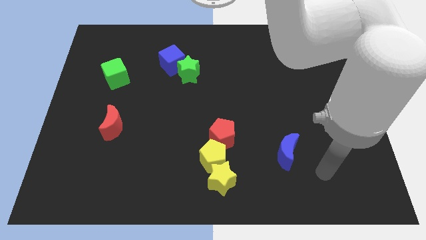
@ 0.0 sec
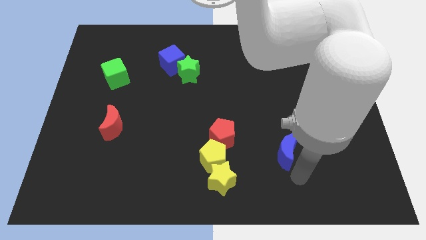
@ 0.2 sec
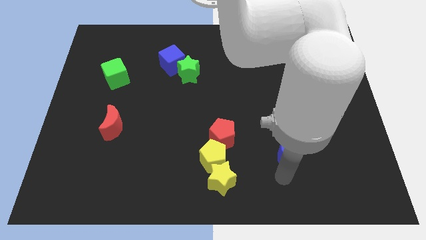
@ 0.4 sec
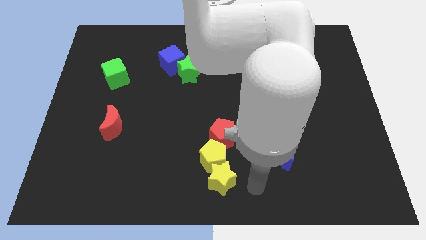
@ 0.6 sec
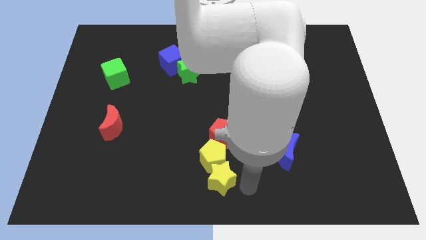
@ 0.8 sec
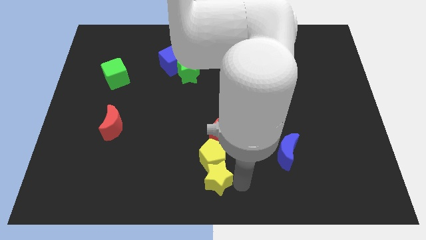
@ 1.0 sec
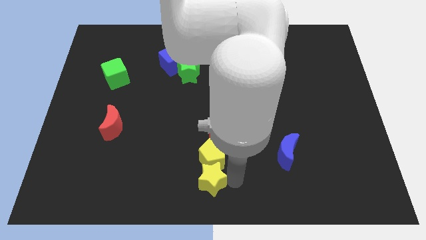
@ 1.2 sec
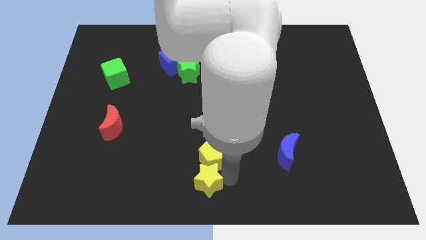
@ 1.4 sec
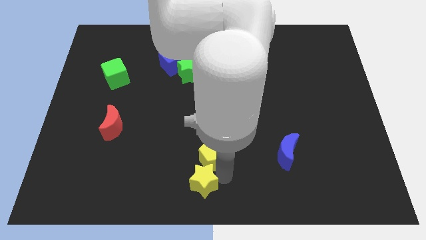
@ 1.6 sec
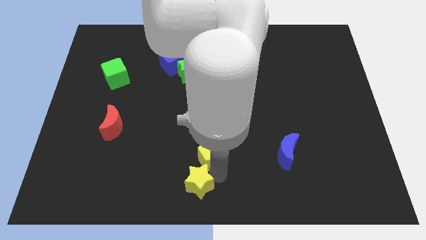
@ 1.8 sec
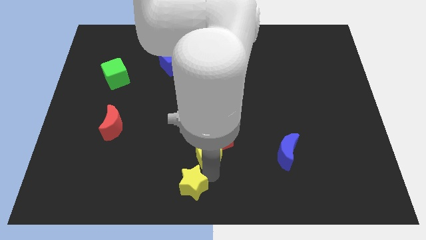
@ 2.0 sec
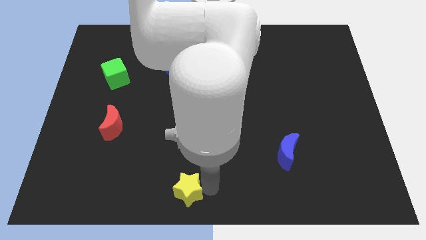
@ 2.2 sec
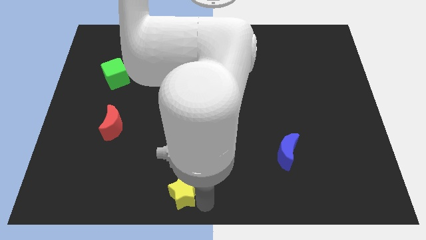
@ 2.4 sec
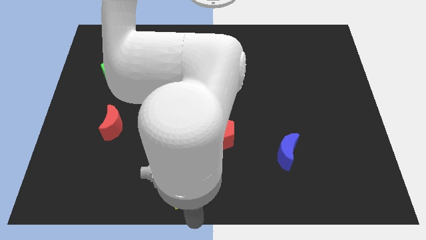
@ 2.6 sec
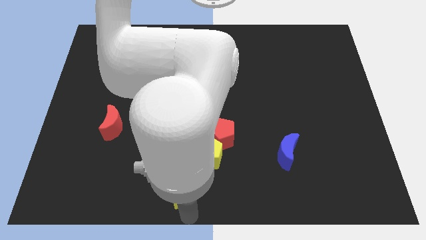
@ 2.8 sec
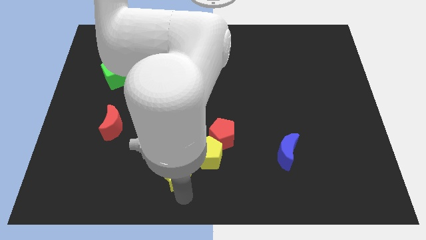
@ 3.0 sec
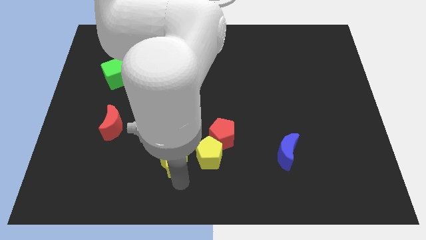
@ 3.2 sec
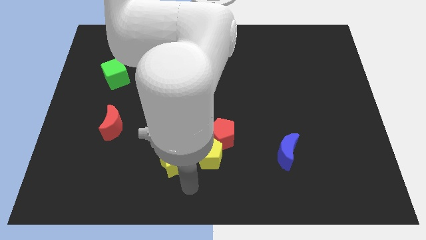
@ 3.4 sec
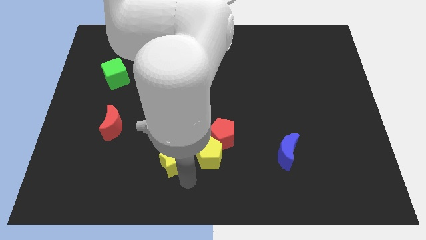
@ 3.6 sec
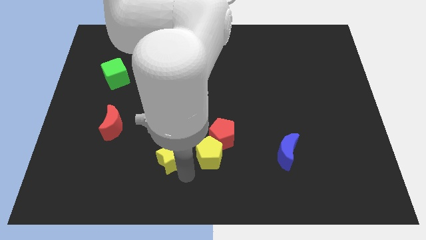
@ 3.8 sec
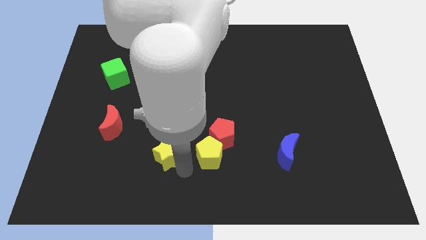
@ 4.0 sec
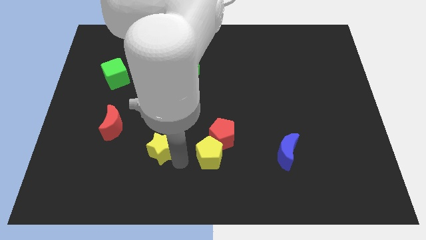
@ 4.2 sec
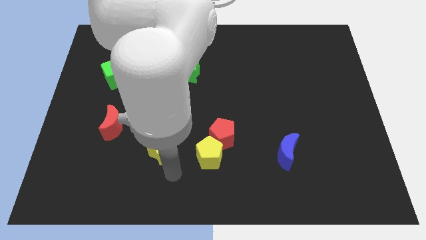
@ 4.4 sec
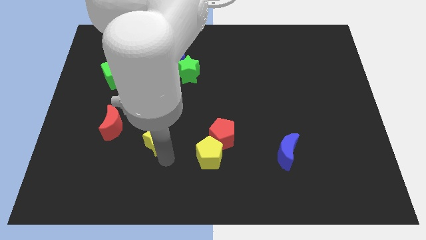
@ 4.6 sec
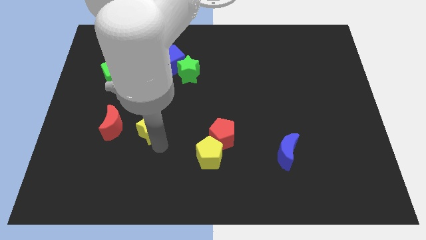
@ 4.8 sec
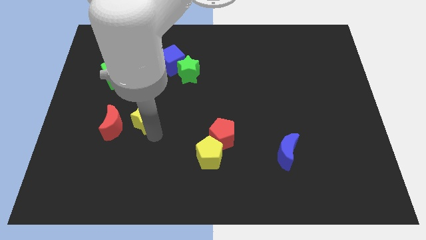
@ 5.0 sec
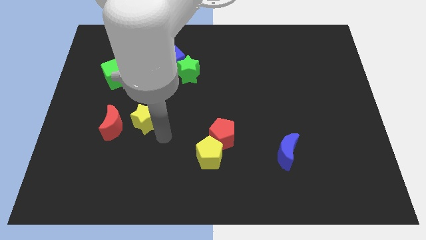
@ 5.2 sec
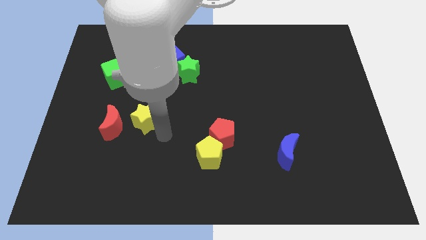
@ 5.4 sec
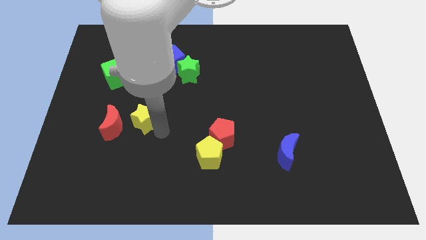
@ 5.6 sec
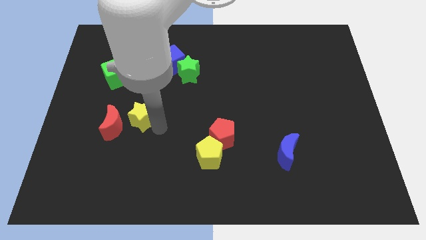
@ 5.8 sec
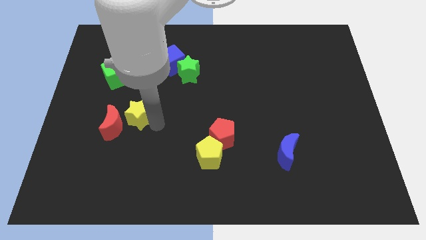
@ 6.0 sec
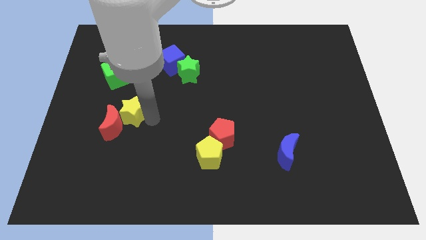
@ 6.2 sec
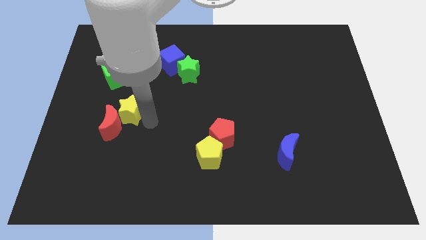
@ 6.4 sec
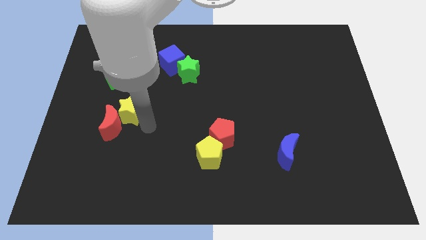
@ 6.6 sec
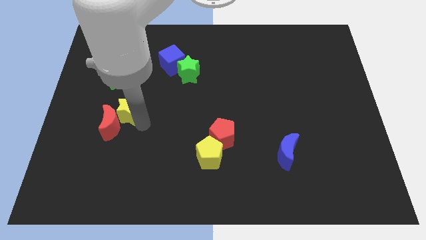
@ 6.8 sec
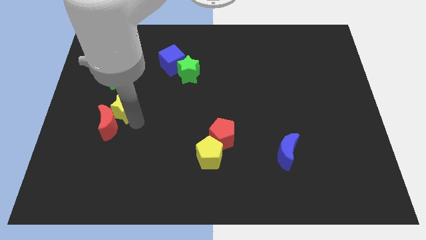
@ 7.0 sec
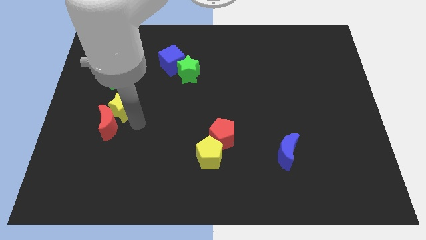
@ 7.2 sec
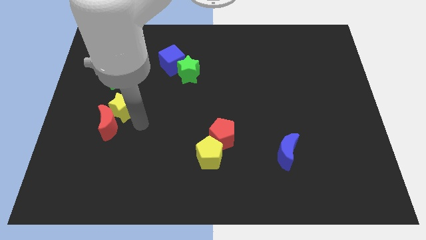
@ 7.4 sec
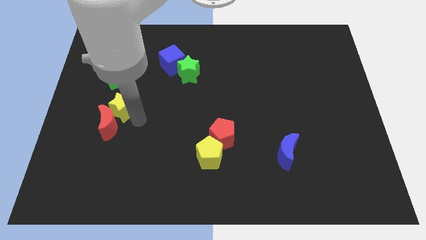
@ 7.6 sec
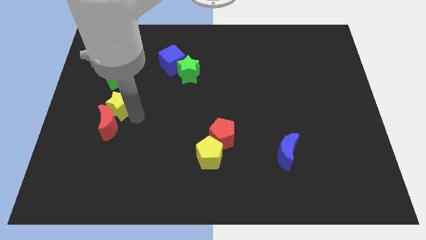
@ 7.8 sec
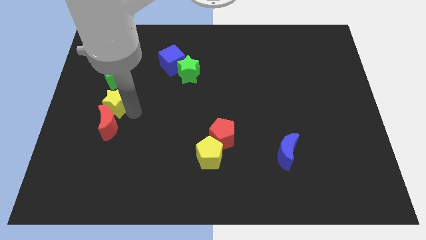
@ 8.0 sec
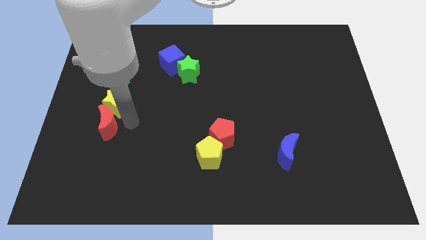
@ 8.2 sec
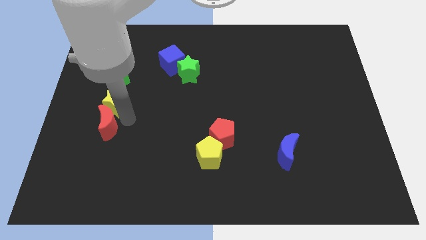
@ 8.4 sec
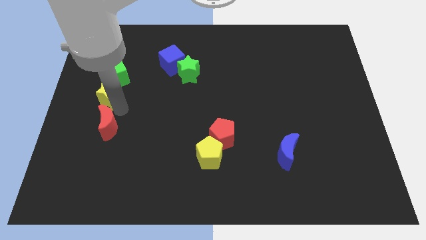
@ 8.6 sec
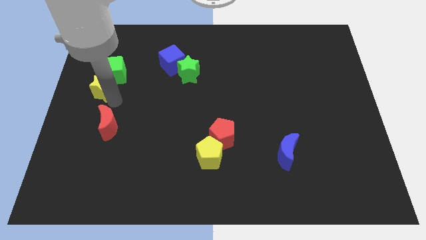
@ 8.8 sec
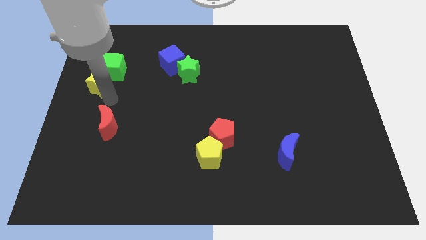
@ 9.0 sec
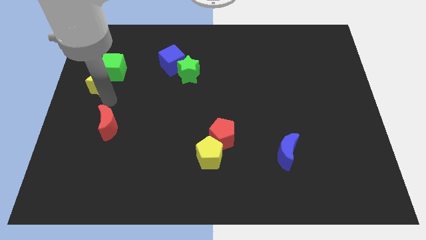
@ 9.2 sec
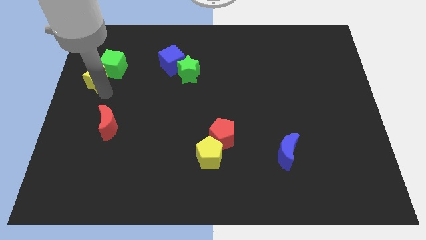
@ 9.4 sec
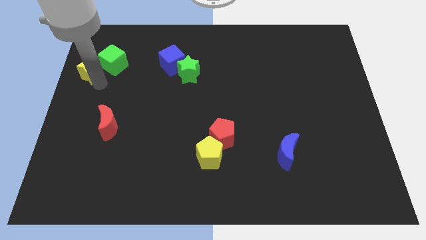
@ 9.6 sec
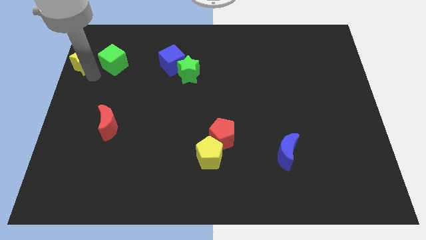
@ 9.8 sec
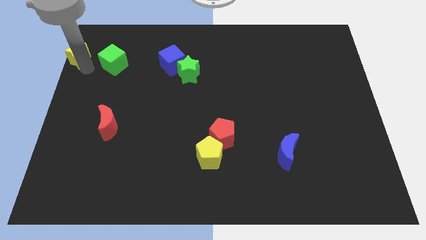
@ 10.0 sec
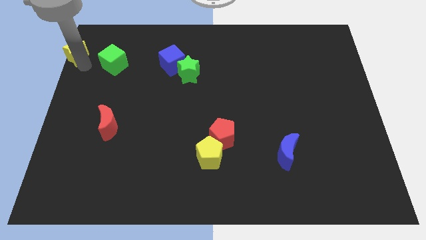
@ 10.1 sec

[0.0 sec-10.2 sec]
put the yellow star to the top left of the board

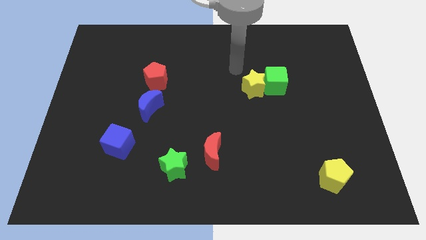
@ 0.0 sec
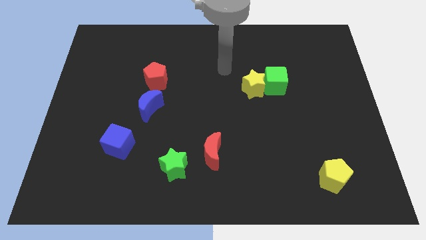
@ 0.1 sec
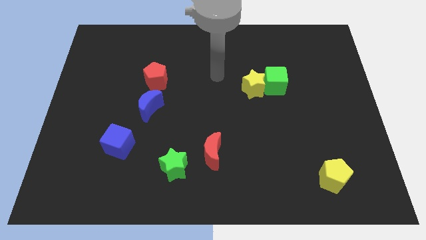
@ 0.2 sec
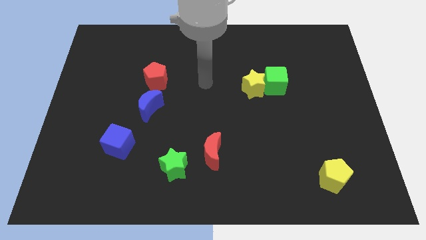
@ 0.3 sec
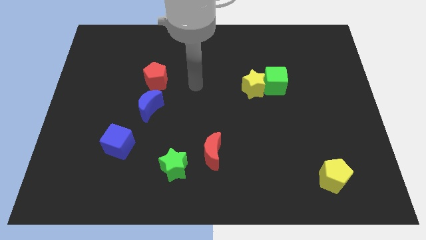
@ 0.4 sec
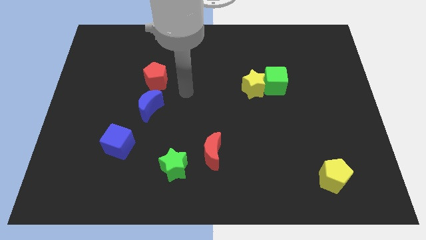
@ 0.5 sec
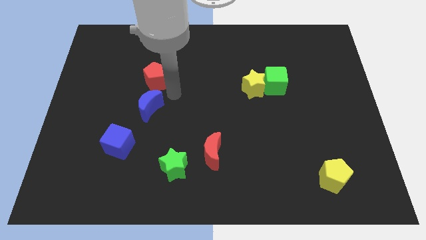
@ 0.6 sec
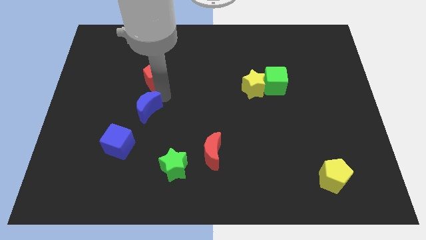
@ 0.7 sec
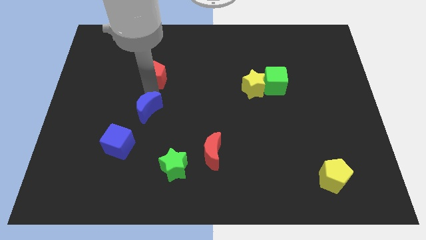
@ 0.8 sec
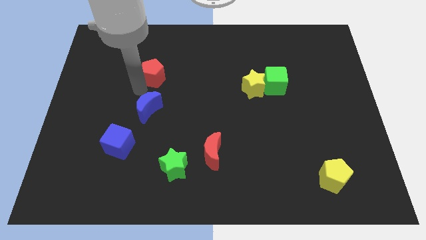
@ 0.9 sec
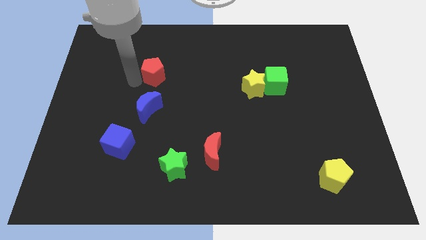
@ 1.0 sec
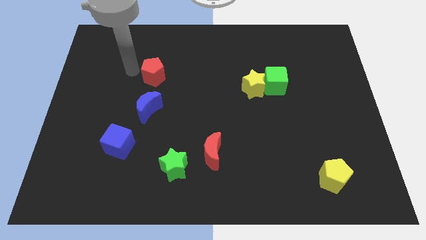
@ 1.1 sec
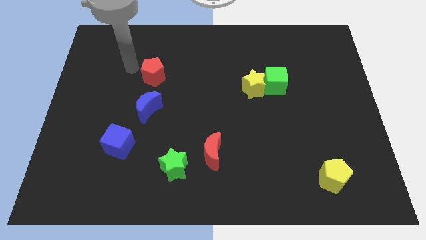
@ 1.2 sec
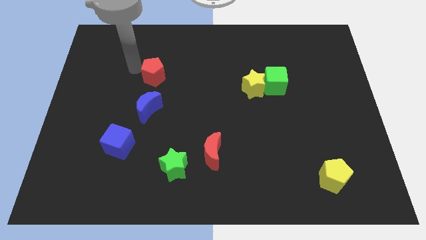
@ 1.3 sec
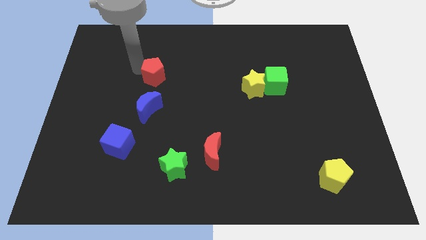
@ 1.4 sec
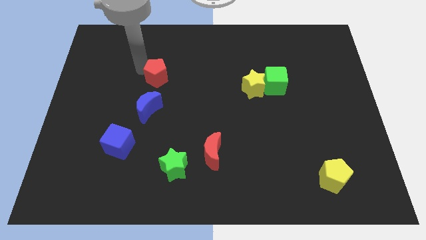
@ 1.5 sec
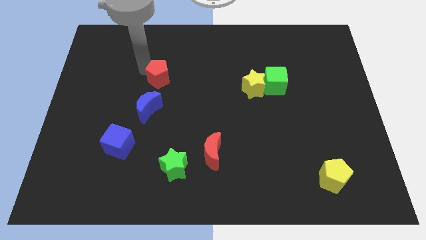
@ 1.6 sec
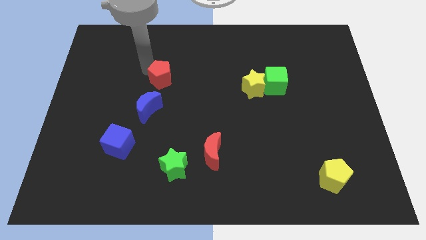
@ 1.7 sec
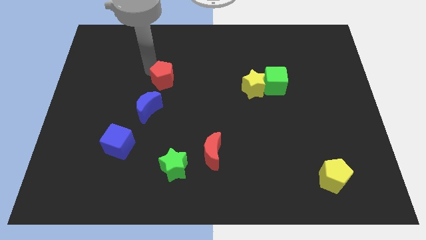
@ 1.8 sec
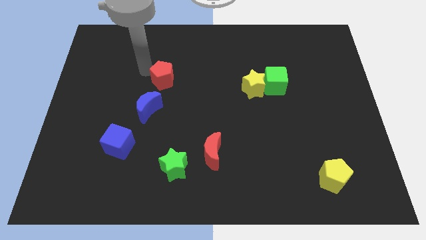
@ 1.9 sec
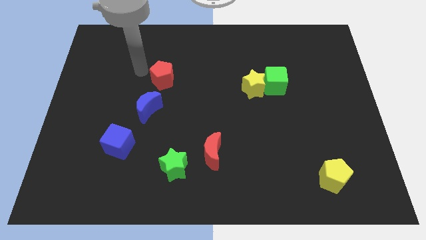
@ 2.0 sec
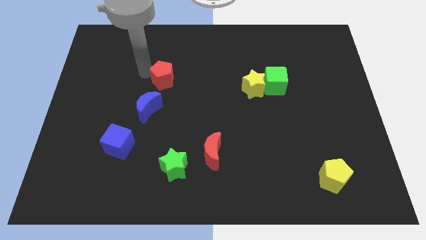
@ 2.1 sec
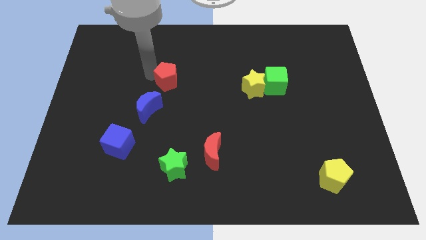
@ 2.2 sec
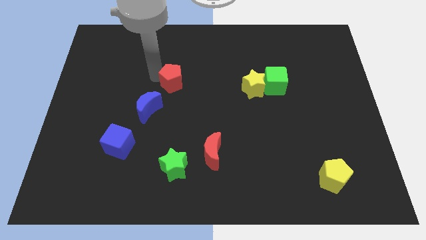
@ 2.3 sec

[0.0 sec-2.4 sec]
put the red pentagon to the middle of the board
